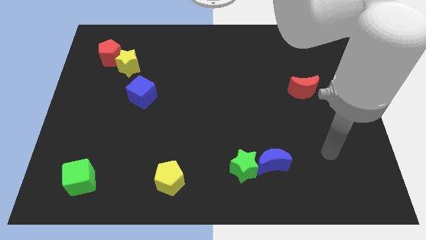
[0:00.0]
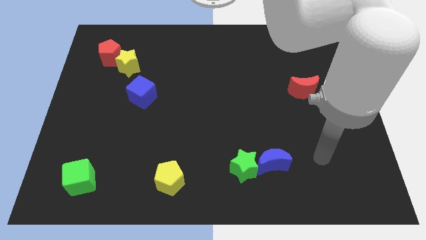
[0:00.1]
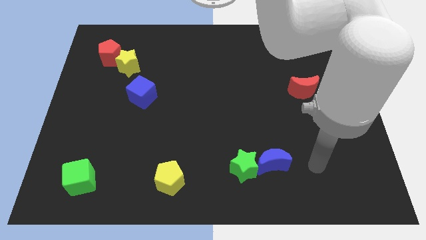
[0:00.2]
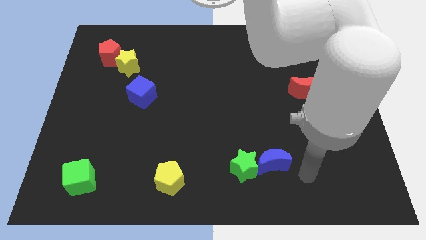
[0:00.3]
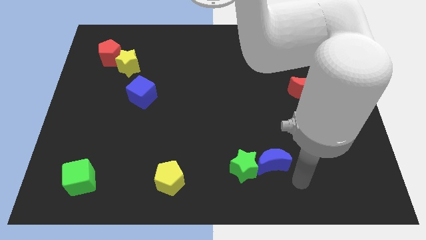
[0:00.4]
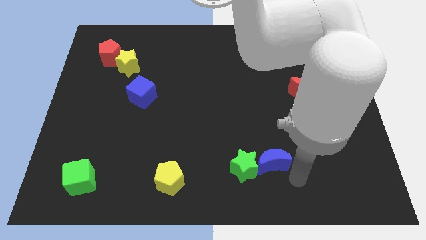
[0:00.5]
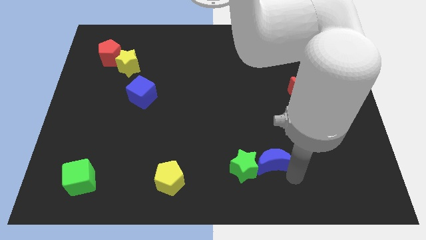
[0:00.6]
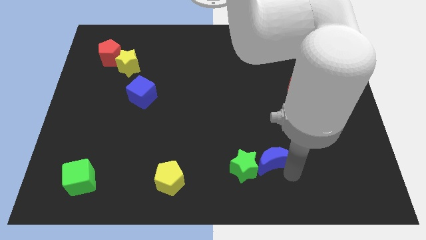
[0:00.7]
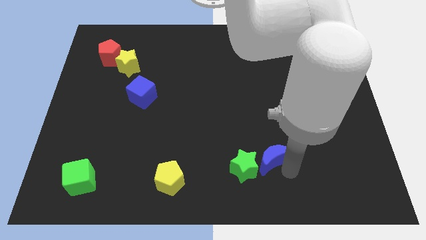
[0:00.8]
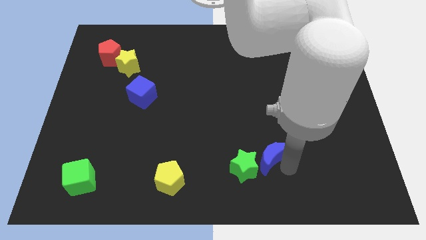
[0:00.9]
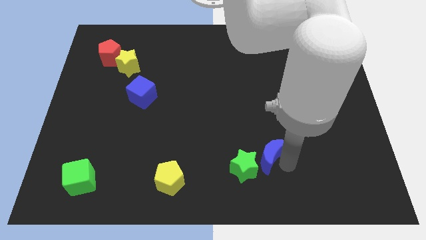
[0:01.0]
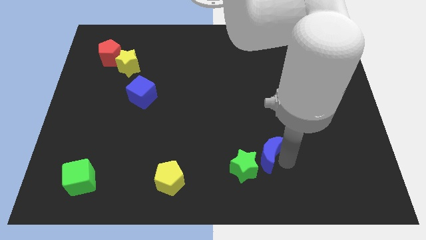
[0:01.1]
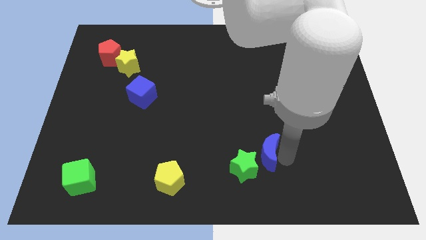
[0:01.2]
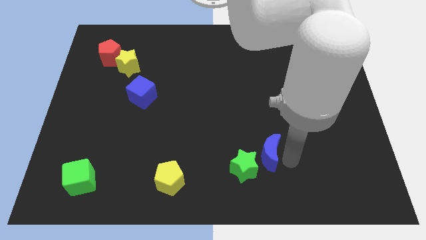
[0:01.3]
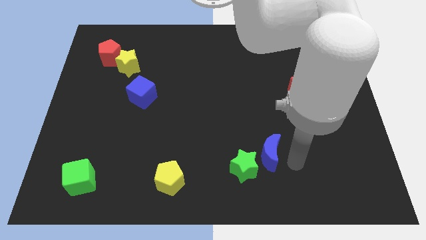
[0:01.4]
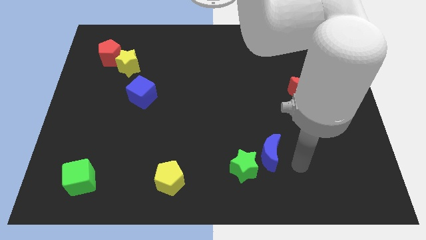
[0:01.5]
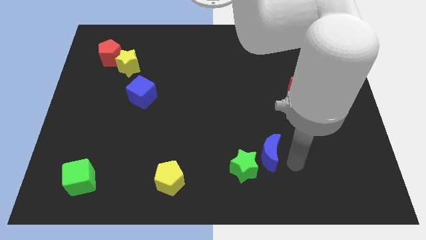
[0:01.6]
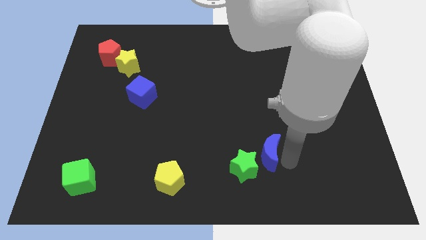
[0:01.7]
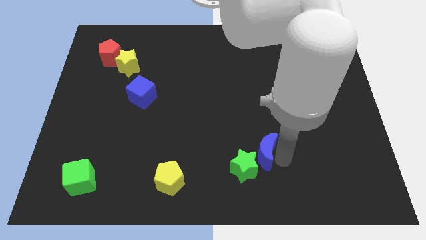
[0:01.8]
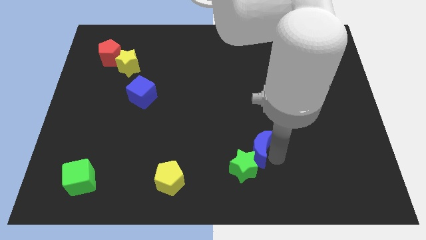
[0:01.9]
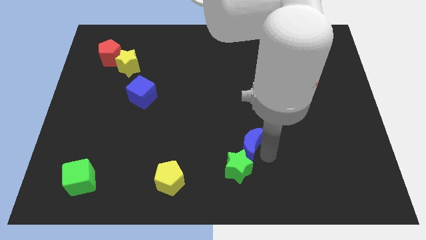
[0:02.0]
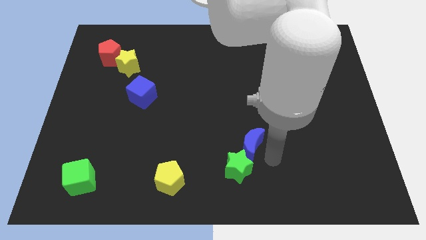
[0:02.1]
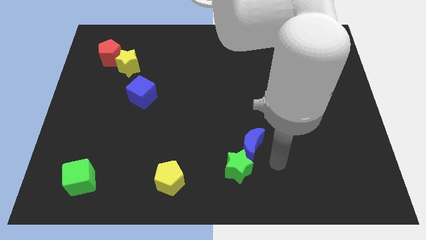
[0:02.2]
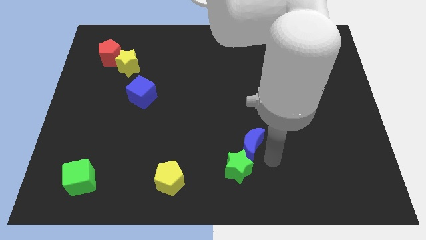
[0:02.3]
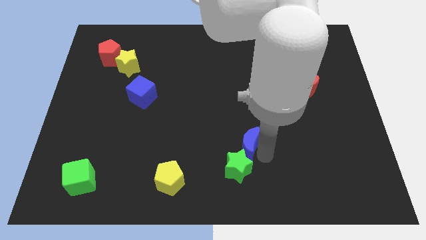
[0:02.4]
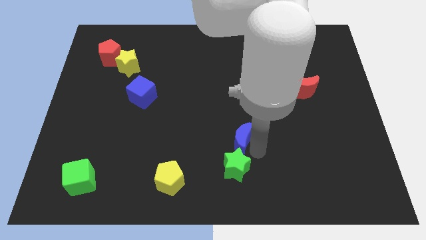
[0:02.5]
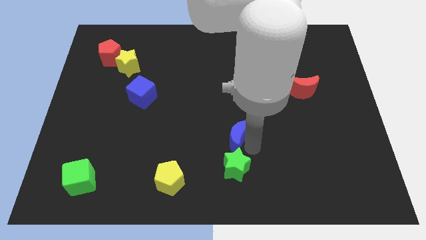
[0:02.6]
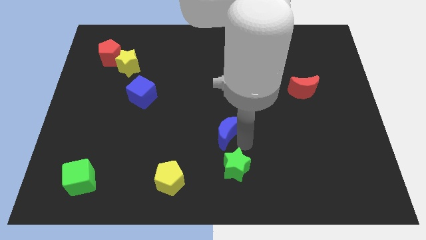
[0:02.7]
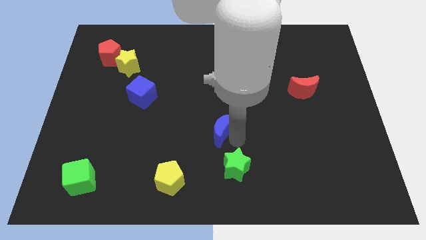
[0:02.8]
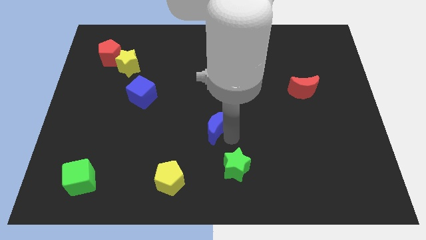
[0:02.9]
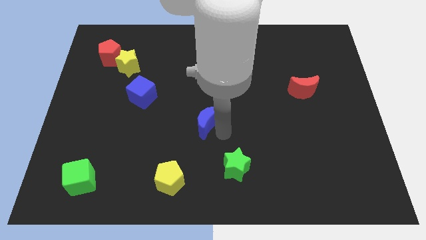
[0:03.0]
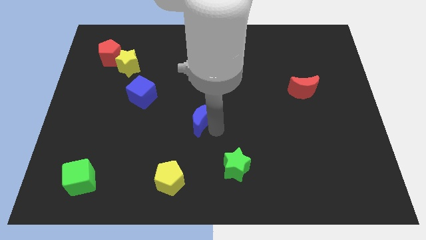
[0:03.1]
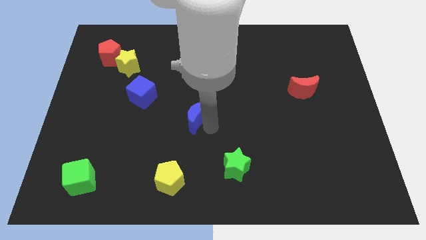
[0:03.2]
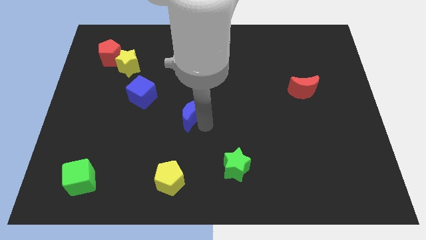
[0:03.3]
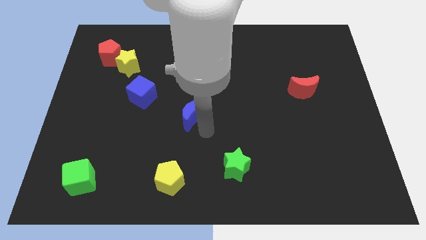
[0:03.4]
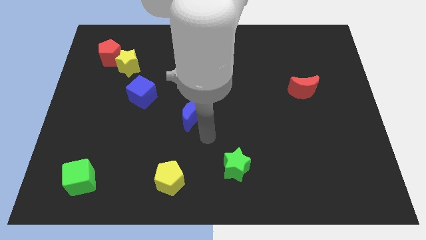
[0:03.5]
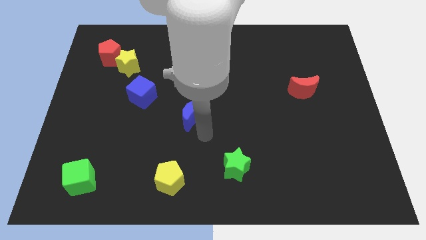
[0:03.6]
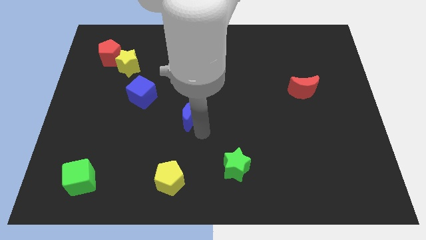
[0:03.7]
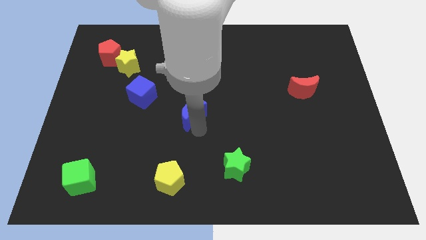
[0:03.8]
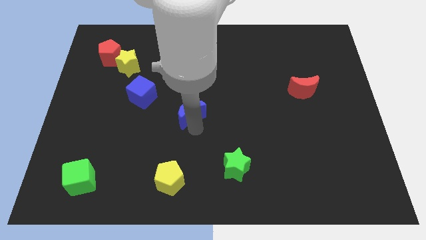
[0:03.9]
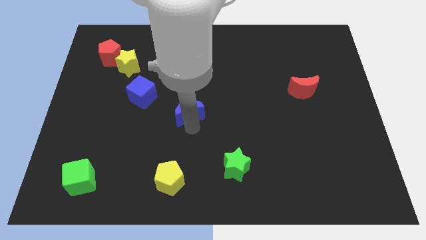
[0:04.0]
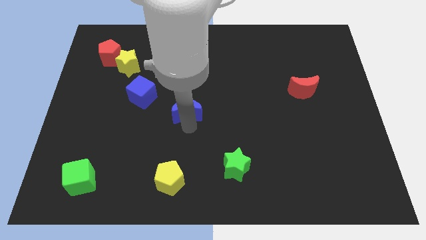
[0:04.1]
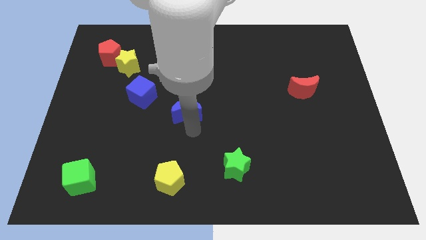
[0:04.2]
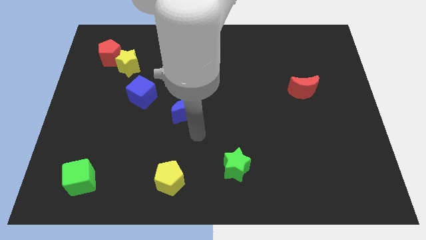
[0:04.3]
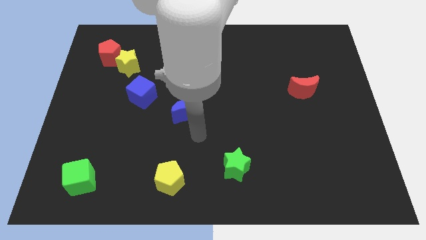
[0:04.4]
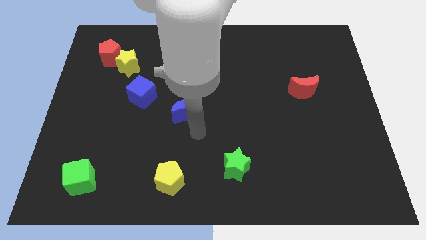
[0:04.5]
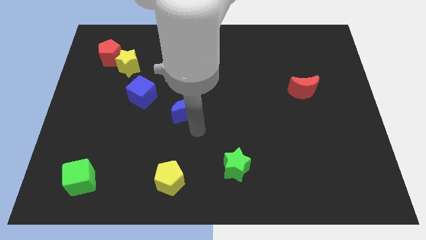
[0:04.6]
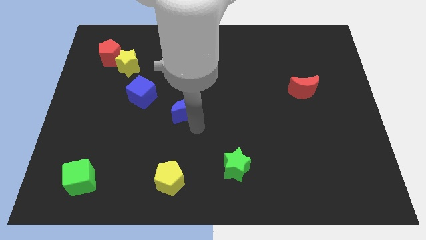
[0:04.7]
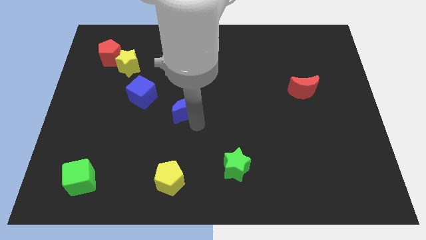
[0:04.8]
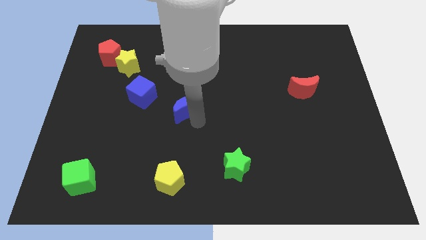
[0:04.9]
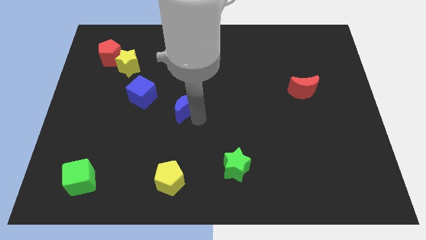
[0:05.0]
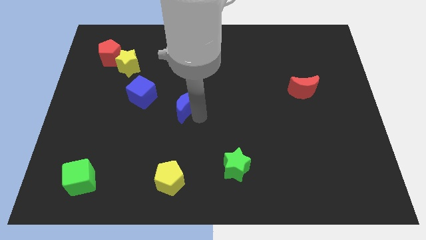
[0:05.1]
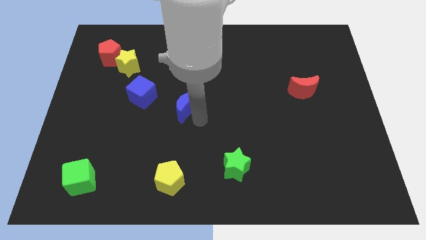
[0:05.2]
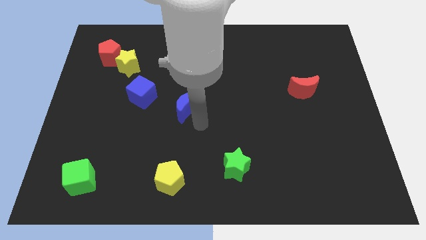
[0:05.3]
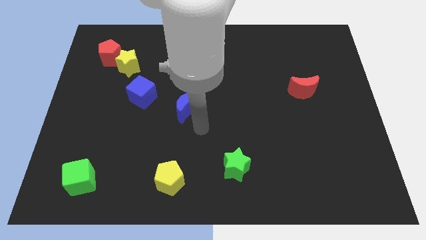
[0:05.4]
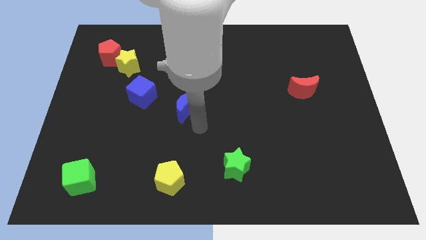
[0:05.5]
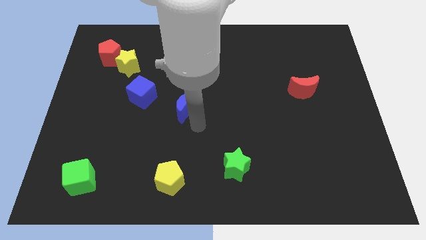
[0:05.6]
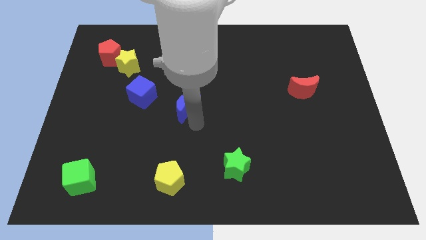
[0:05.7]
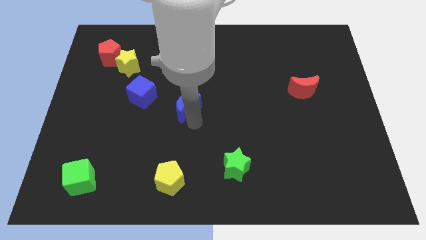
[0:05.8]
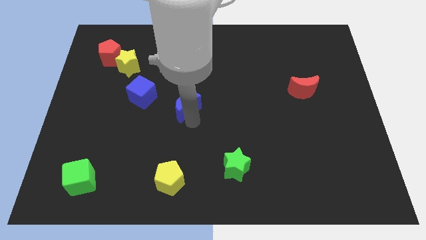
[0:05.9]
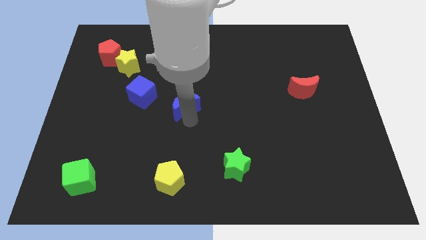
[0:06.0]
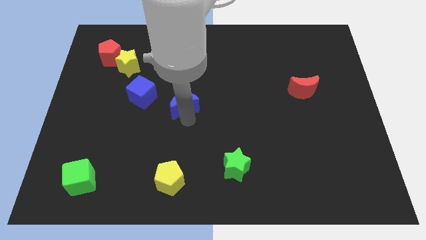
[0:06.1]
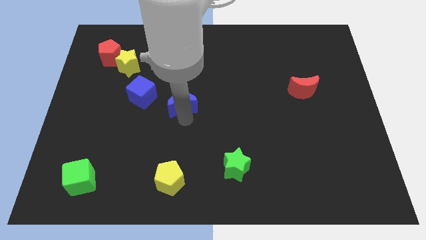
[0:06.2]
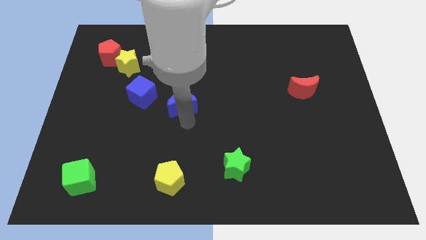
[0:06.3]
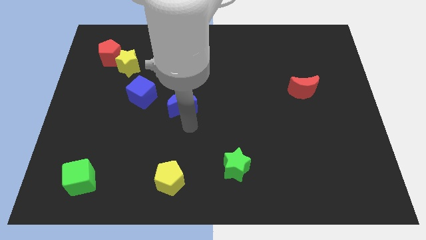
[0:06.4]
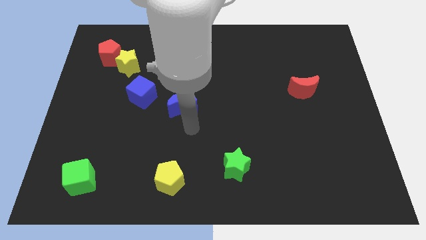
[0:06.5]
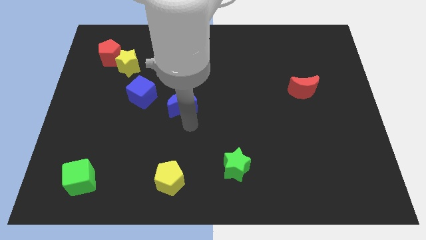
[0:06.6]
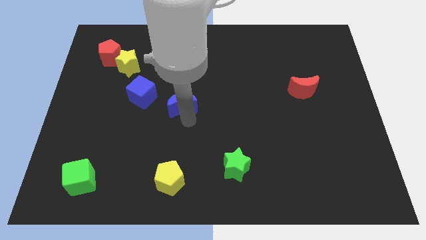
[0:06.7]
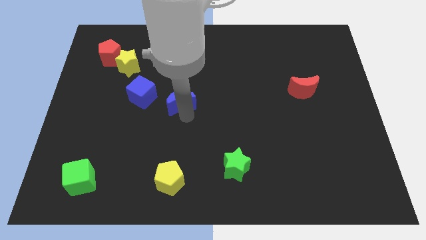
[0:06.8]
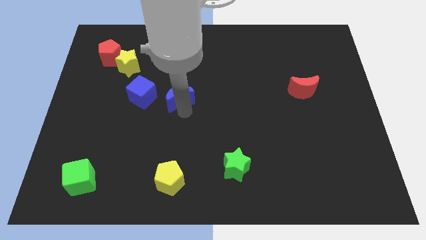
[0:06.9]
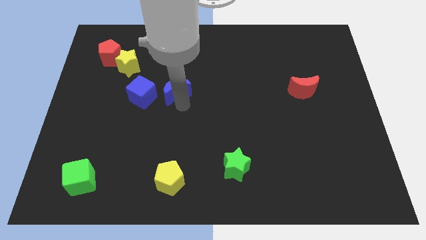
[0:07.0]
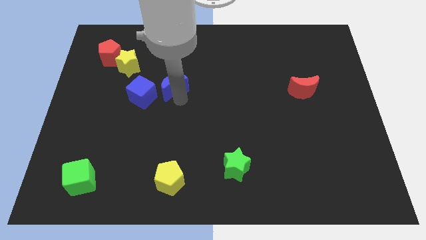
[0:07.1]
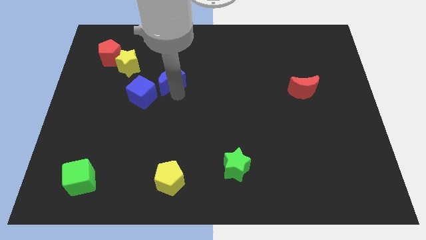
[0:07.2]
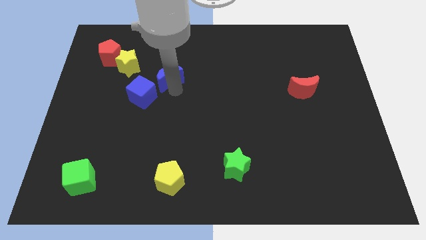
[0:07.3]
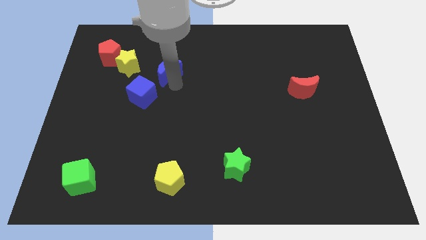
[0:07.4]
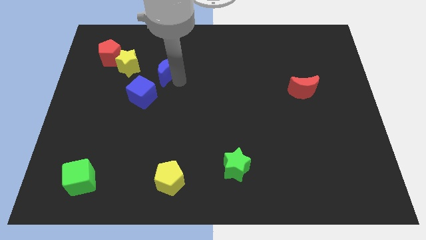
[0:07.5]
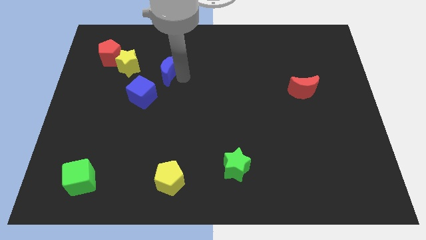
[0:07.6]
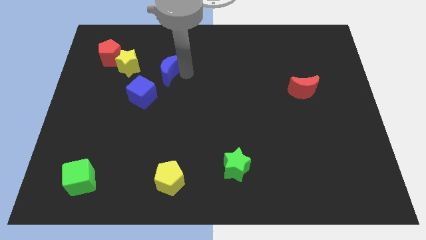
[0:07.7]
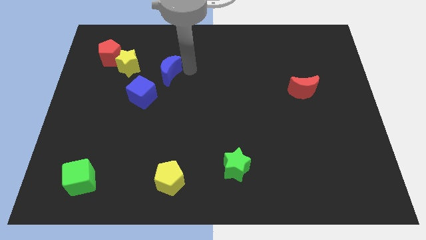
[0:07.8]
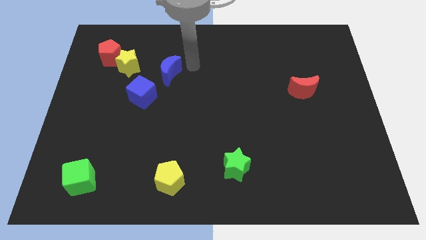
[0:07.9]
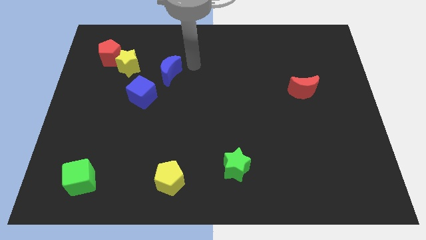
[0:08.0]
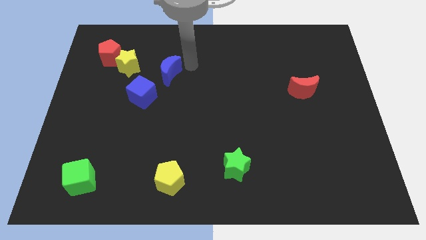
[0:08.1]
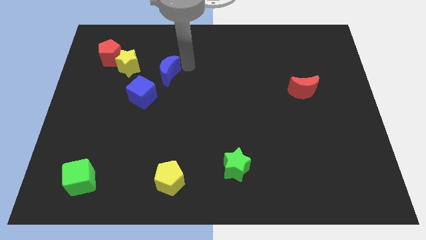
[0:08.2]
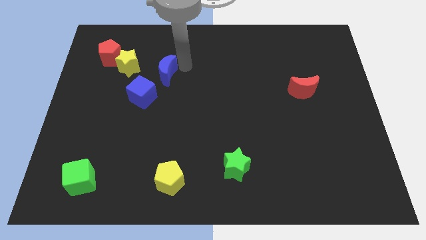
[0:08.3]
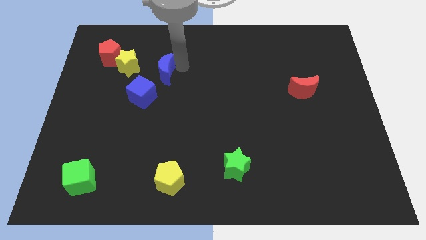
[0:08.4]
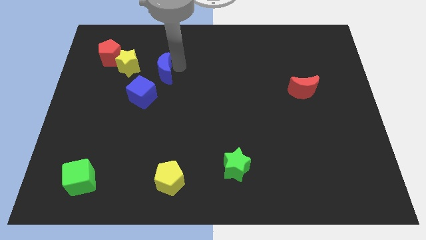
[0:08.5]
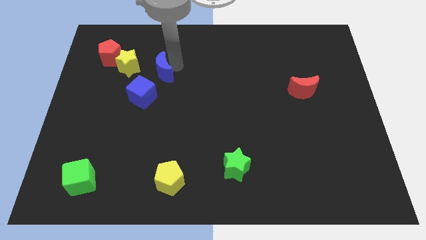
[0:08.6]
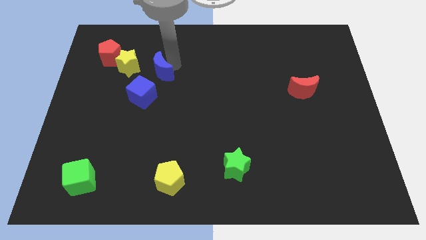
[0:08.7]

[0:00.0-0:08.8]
push the blue moon diagonally down and to the right of the yellow star
